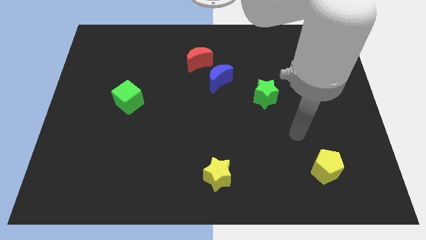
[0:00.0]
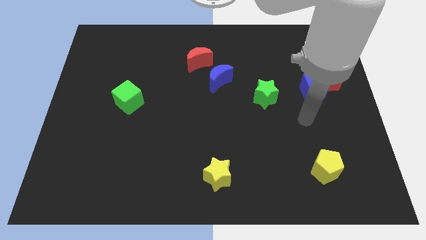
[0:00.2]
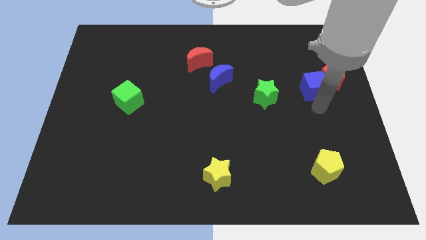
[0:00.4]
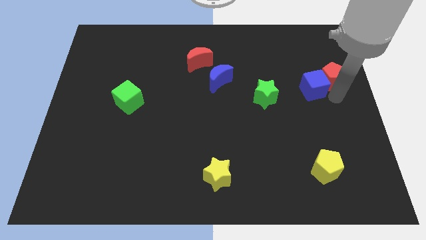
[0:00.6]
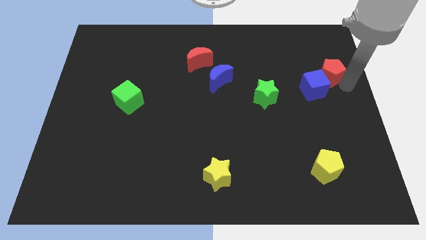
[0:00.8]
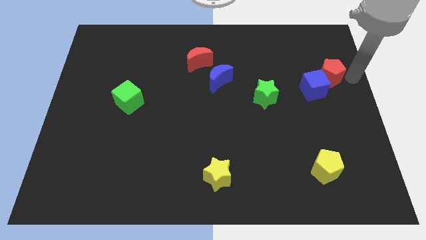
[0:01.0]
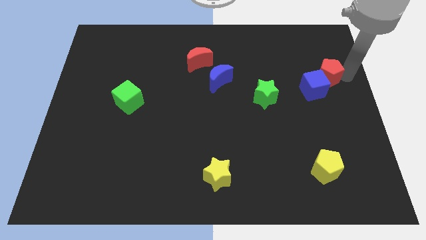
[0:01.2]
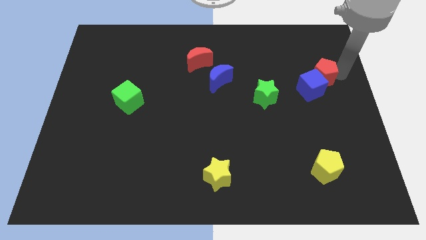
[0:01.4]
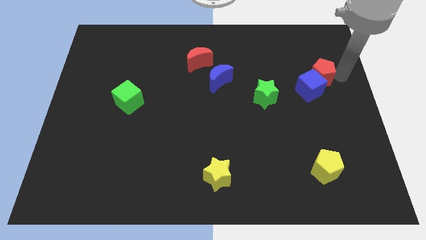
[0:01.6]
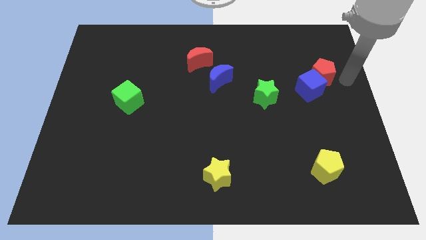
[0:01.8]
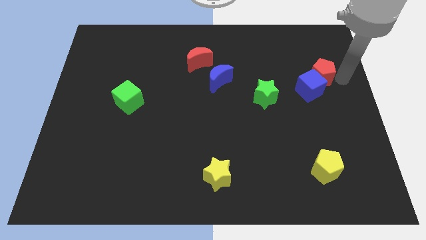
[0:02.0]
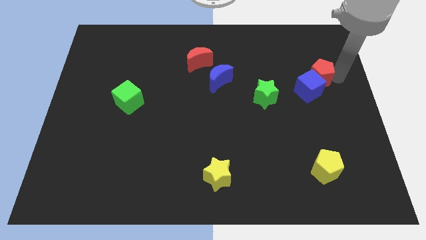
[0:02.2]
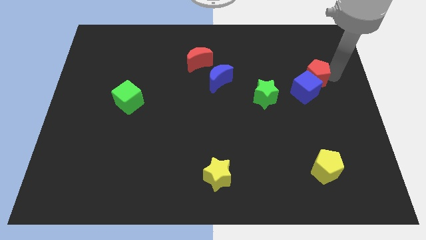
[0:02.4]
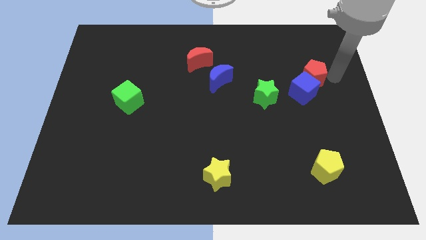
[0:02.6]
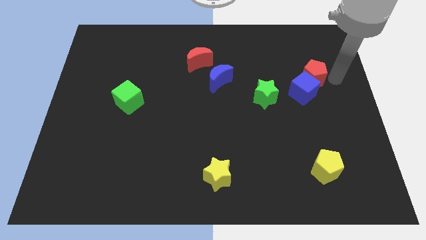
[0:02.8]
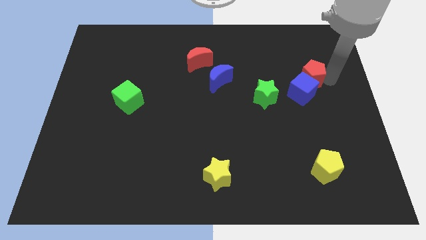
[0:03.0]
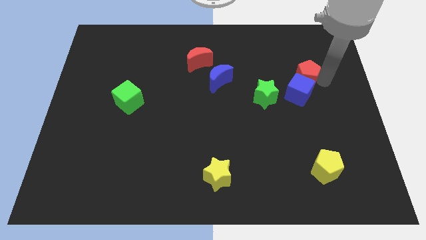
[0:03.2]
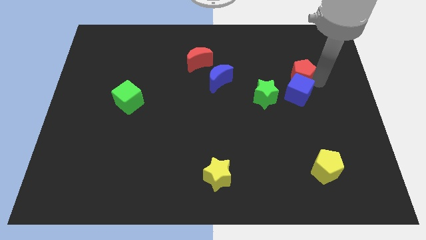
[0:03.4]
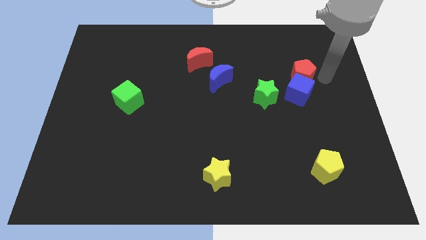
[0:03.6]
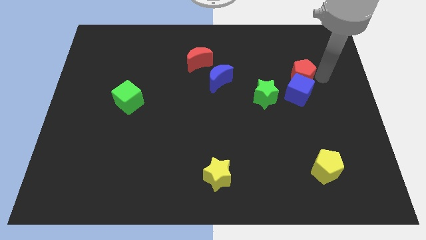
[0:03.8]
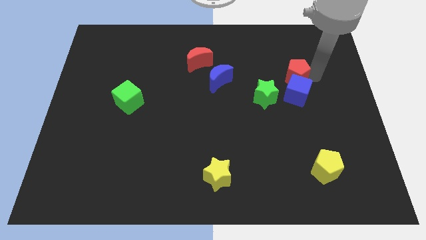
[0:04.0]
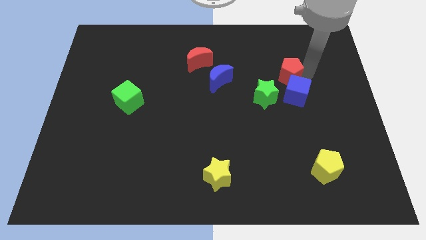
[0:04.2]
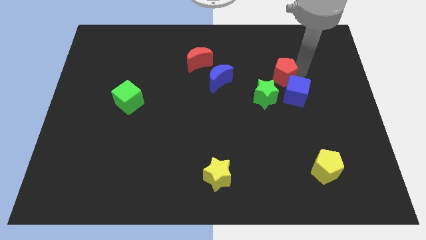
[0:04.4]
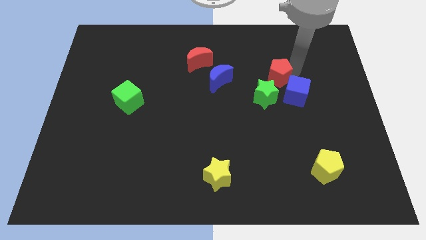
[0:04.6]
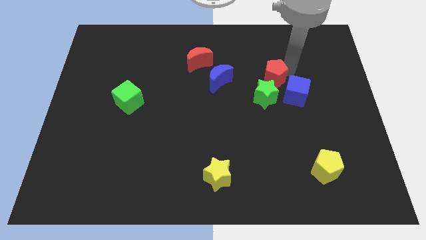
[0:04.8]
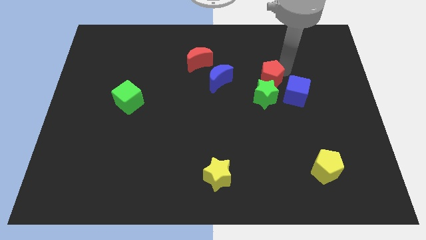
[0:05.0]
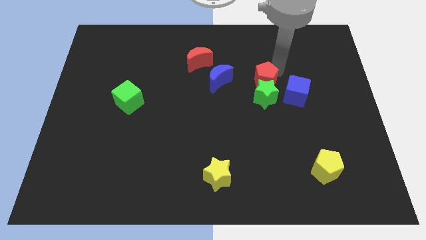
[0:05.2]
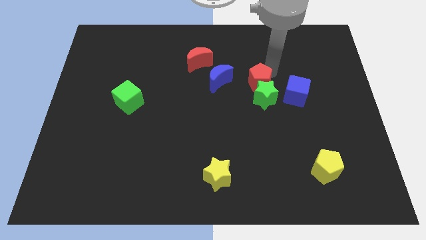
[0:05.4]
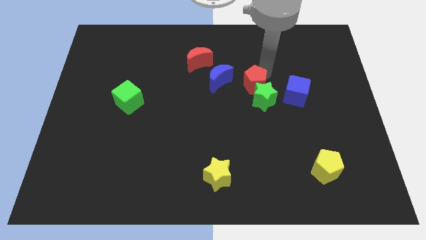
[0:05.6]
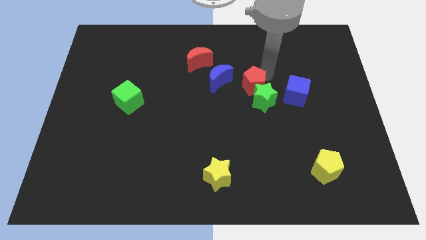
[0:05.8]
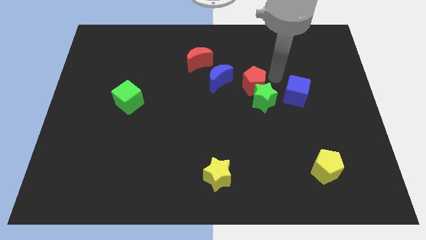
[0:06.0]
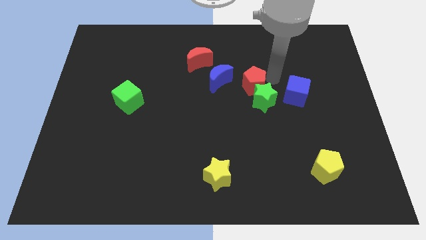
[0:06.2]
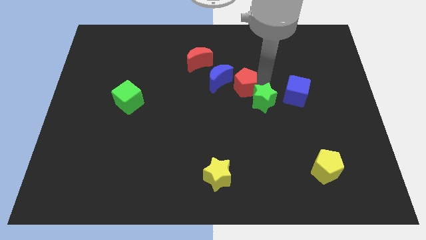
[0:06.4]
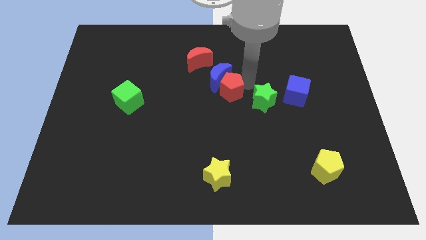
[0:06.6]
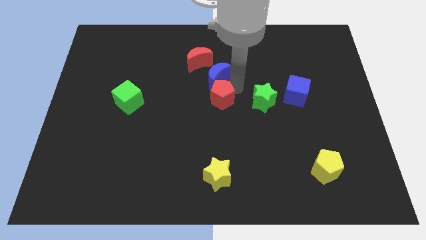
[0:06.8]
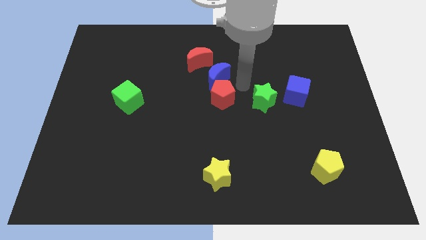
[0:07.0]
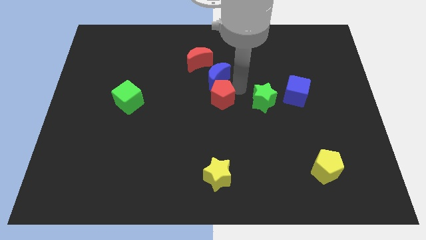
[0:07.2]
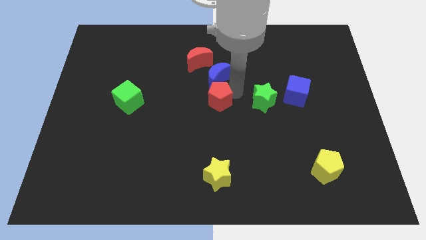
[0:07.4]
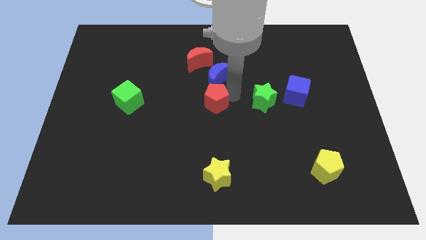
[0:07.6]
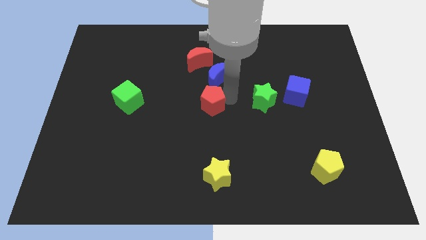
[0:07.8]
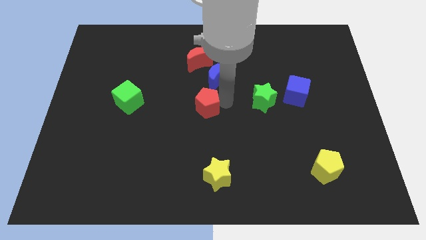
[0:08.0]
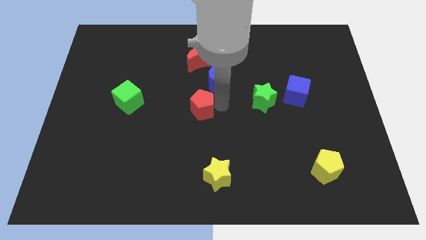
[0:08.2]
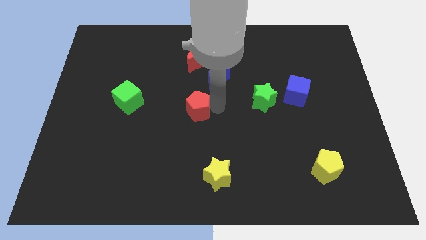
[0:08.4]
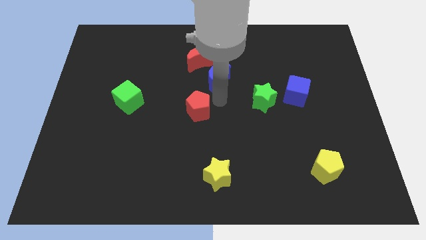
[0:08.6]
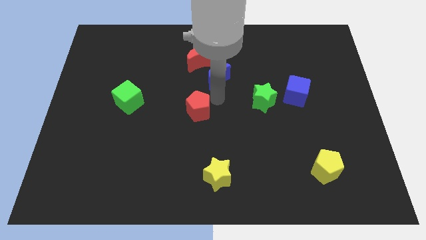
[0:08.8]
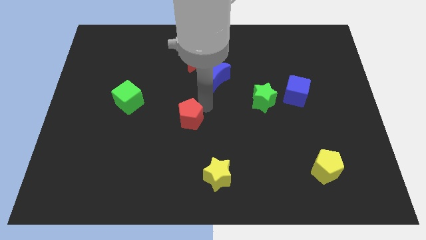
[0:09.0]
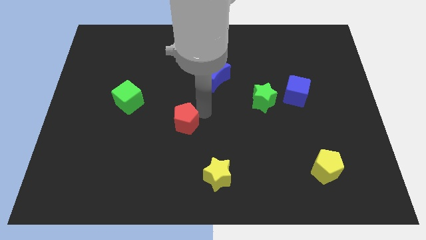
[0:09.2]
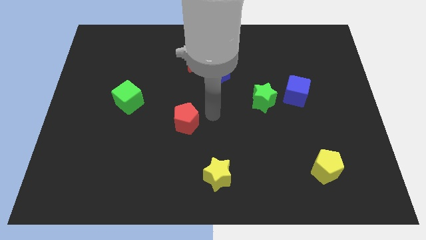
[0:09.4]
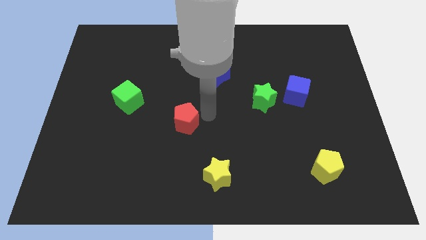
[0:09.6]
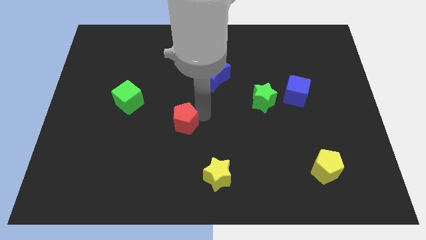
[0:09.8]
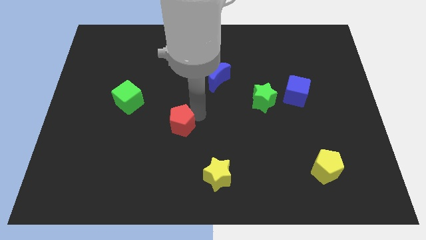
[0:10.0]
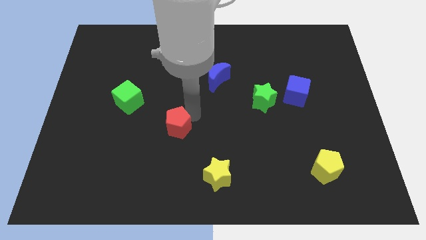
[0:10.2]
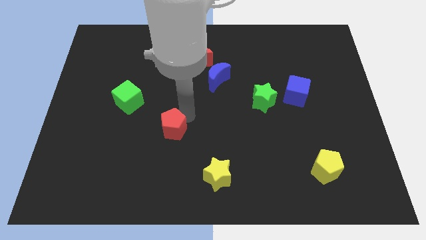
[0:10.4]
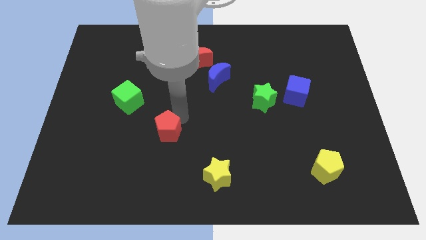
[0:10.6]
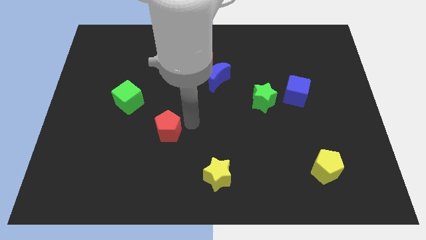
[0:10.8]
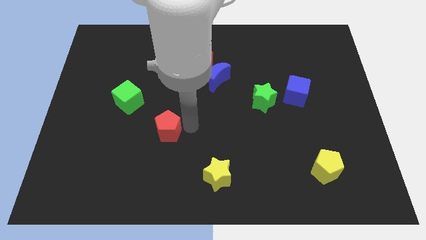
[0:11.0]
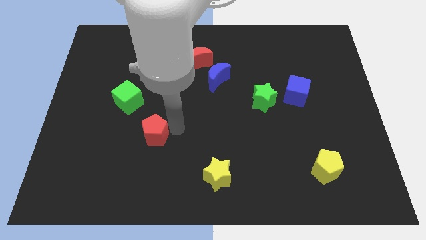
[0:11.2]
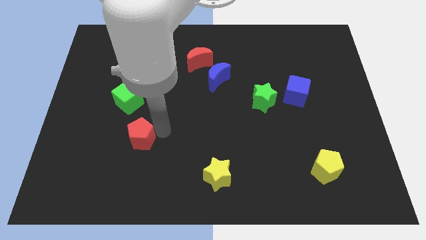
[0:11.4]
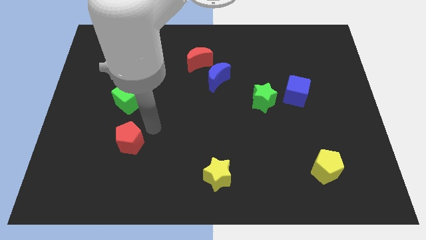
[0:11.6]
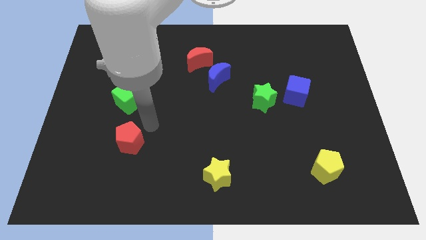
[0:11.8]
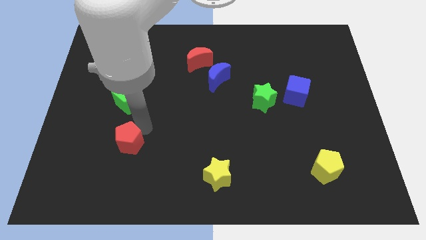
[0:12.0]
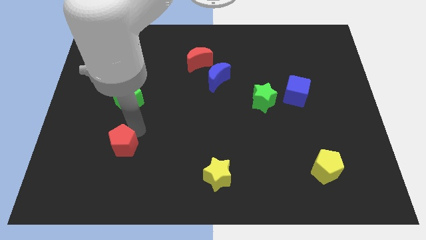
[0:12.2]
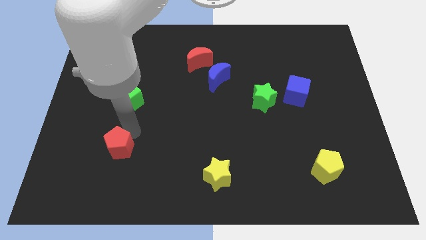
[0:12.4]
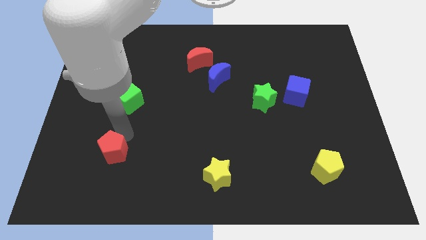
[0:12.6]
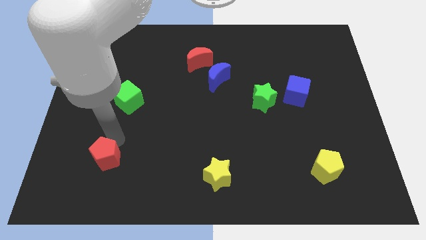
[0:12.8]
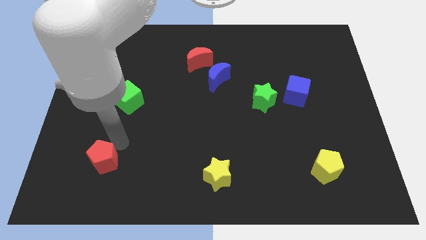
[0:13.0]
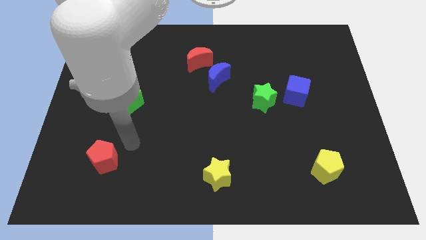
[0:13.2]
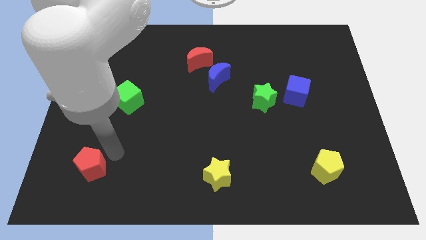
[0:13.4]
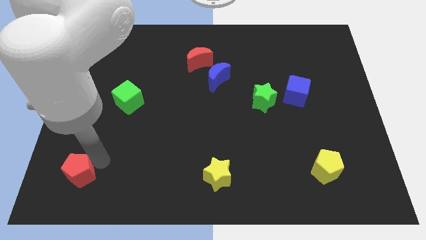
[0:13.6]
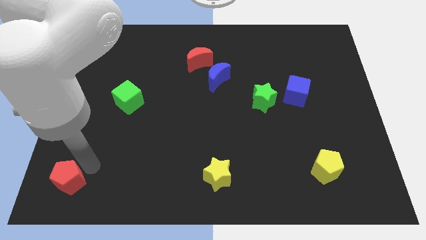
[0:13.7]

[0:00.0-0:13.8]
put the red pentagon to the bottom left corner
